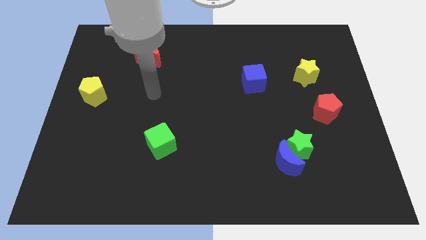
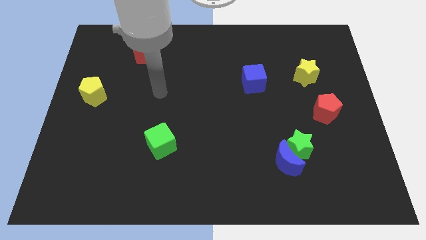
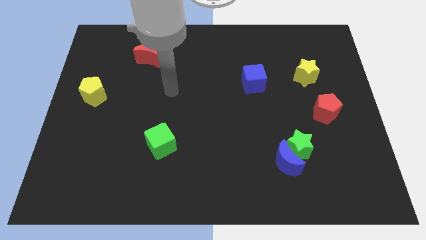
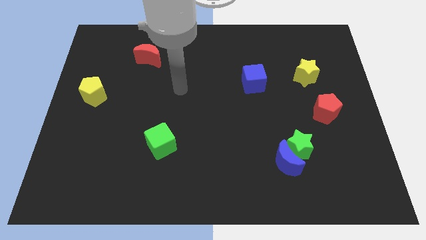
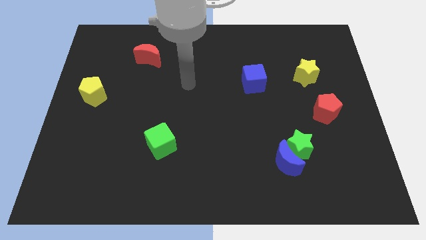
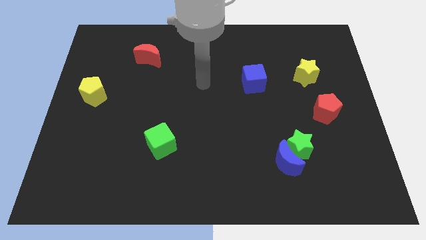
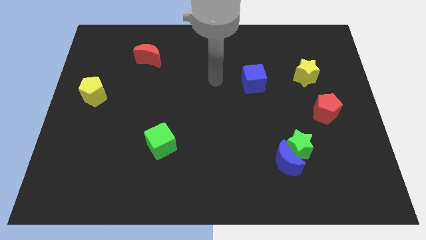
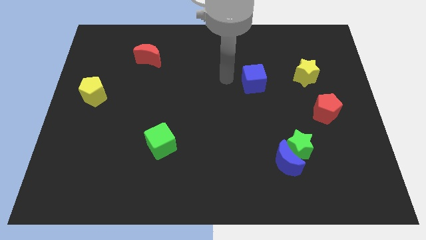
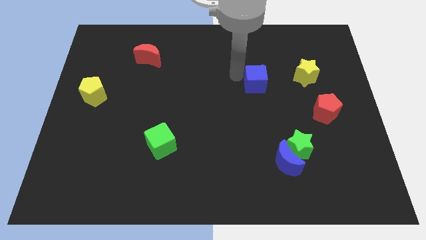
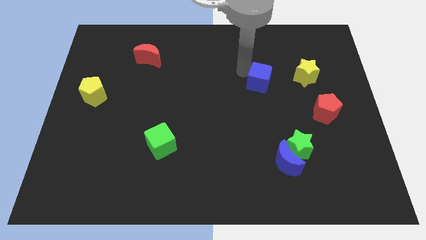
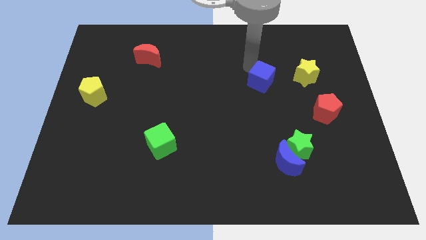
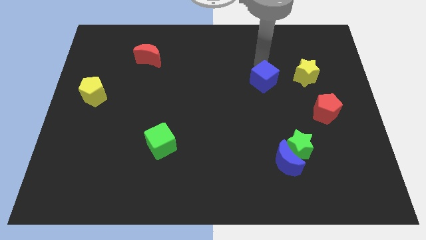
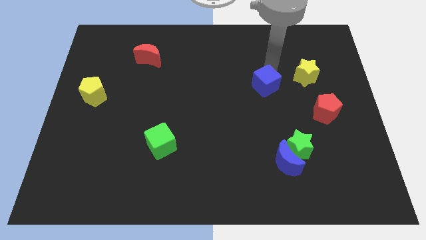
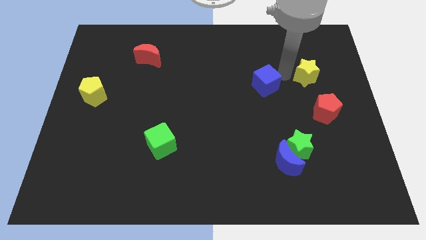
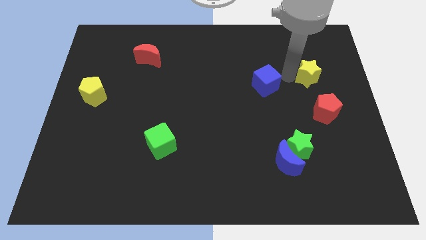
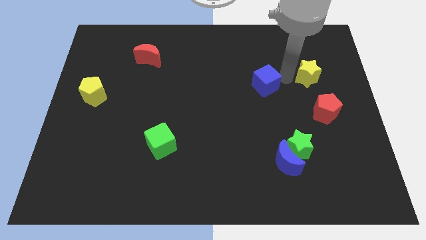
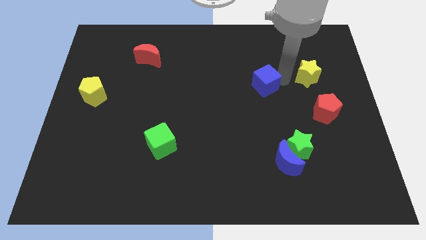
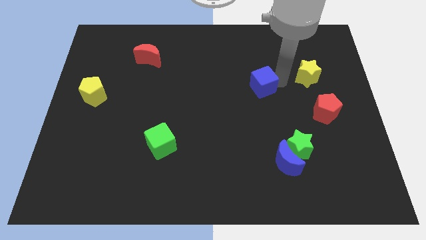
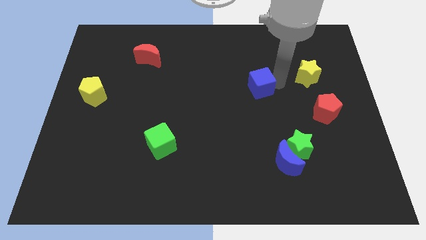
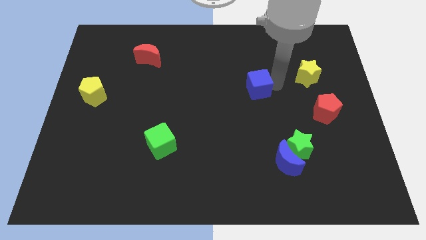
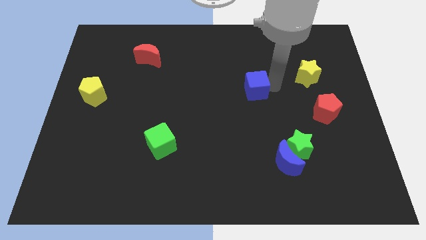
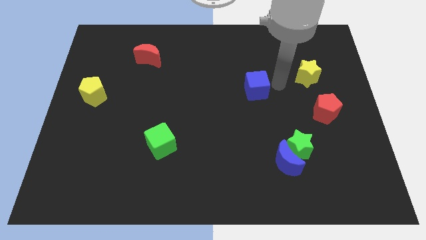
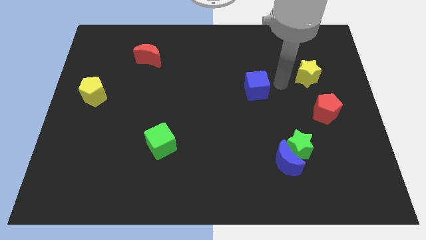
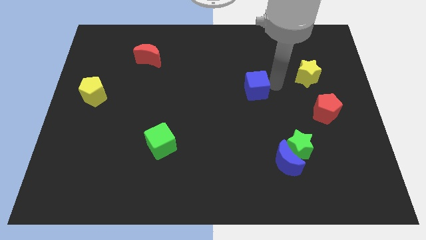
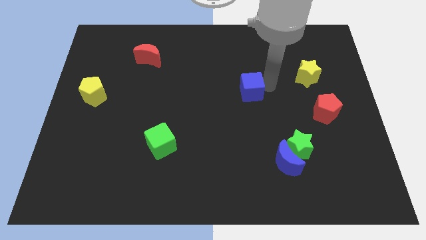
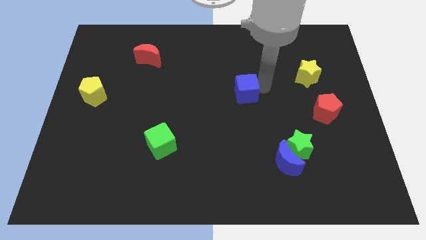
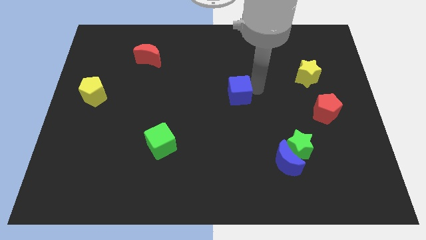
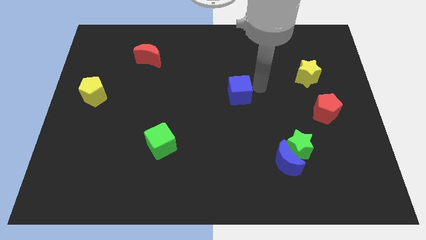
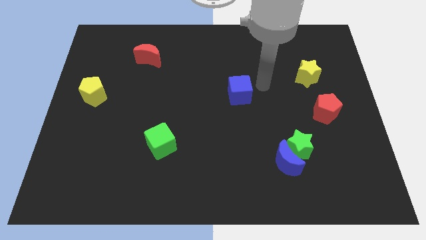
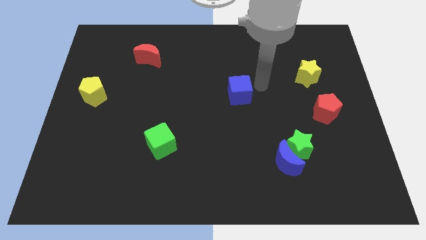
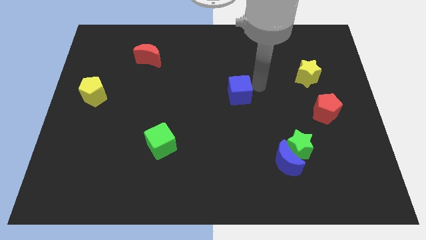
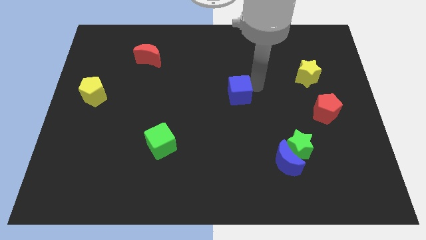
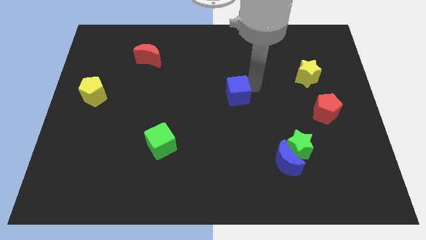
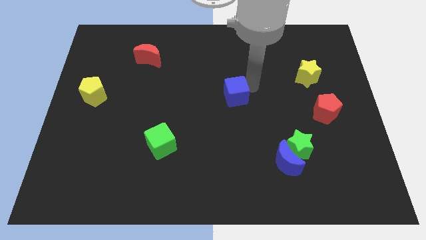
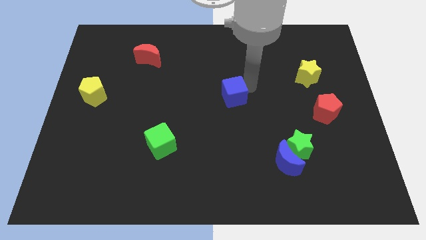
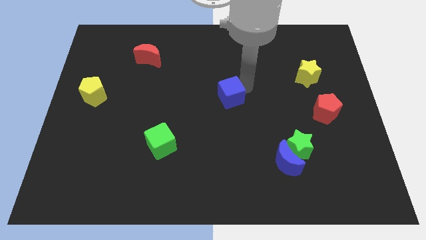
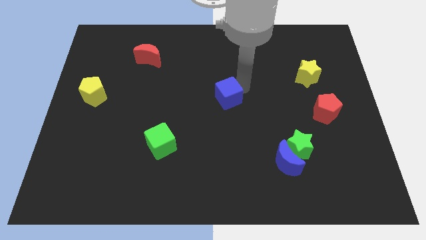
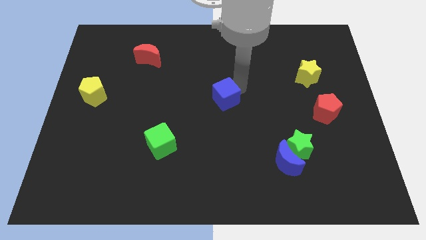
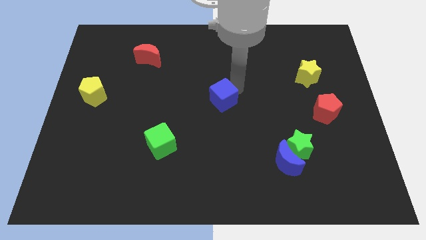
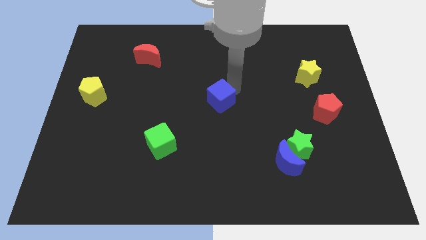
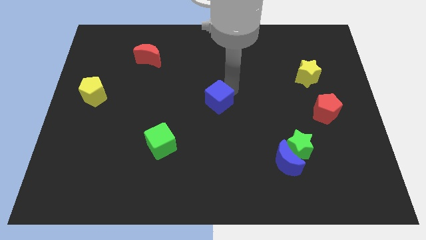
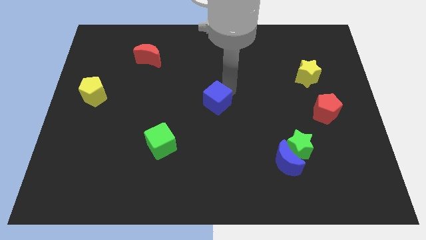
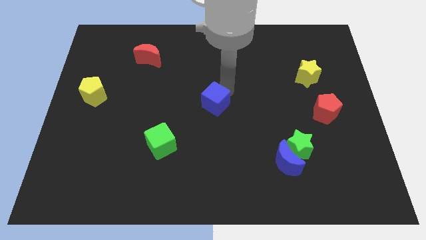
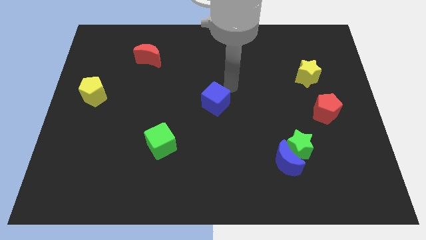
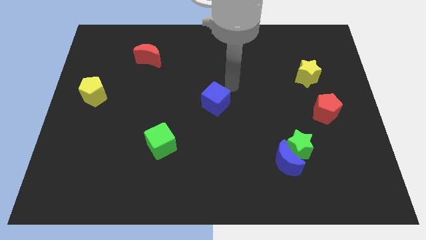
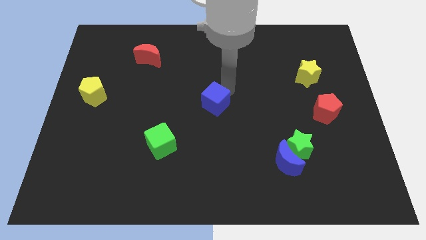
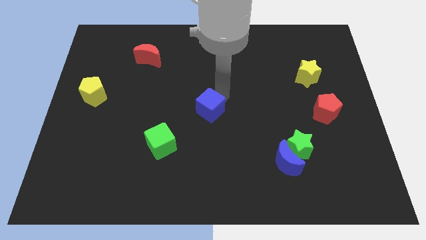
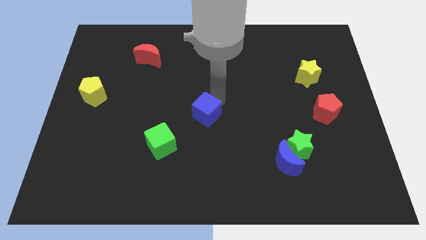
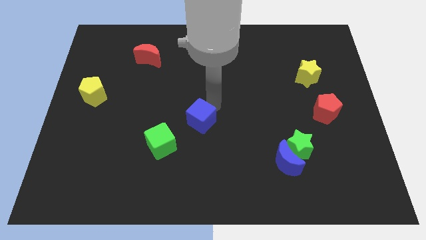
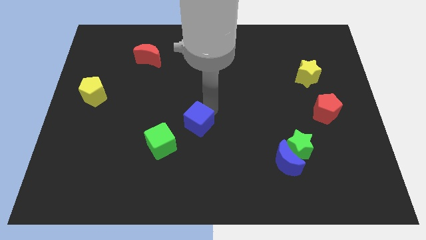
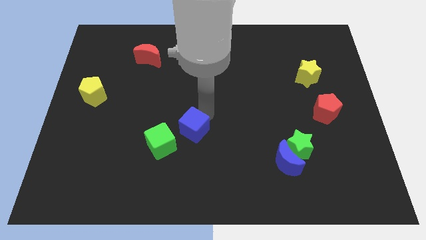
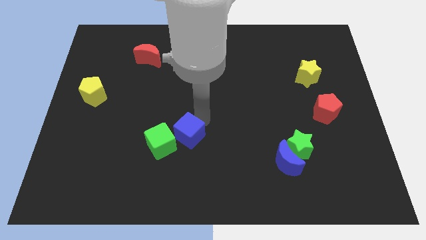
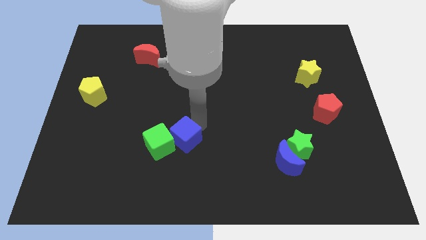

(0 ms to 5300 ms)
put the blue cube towards the green cube
